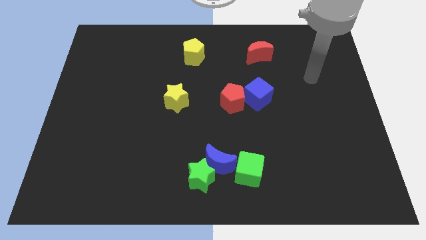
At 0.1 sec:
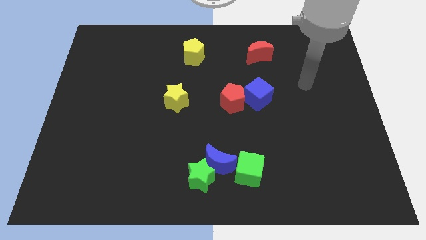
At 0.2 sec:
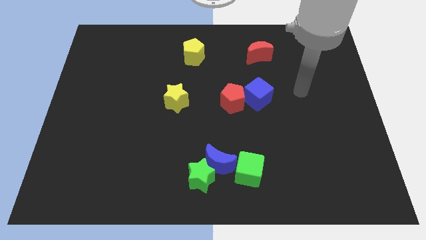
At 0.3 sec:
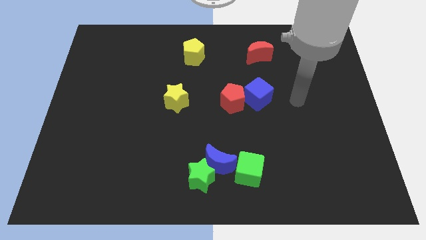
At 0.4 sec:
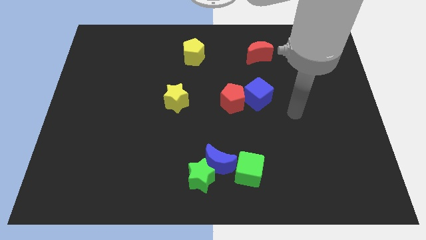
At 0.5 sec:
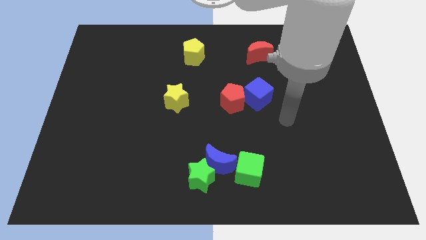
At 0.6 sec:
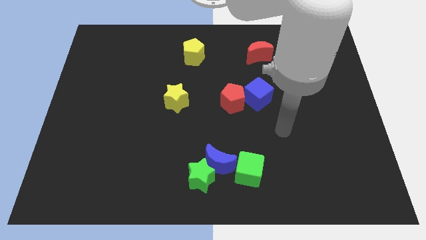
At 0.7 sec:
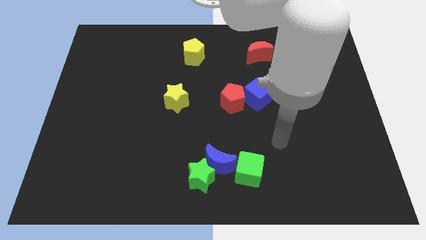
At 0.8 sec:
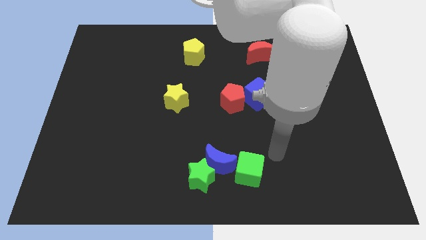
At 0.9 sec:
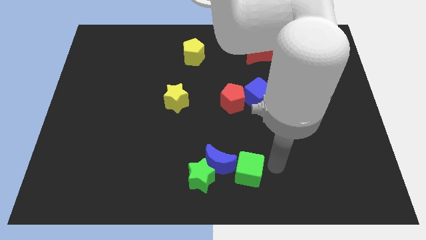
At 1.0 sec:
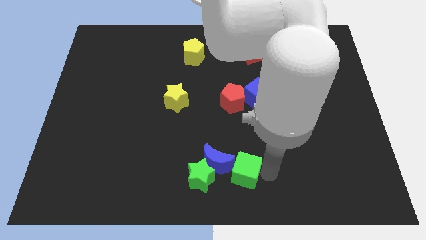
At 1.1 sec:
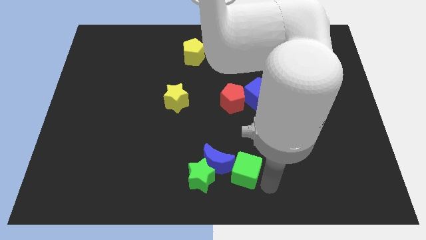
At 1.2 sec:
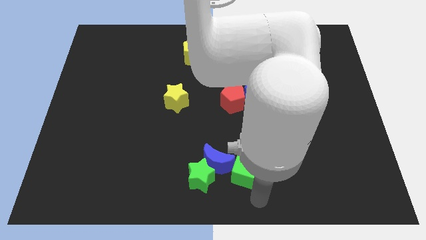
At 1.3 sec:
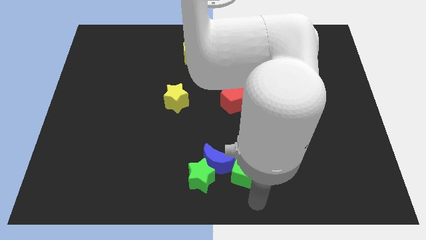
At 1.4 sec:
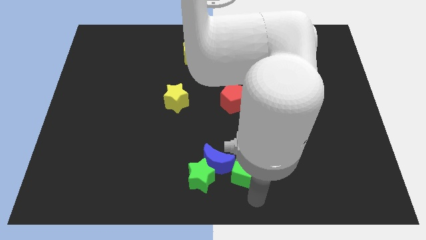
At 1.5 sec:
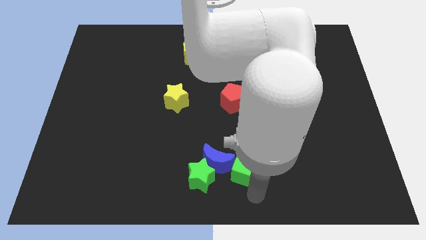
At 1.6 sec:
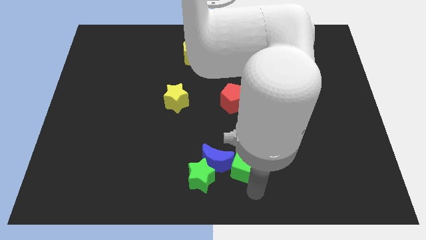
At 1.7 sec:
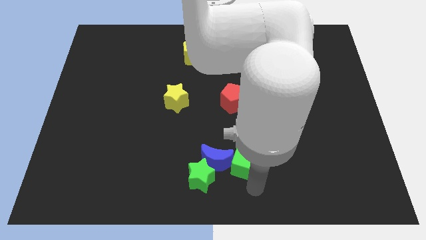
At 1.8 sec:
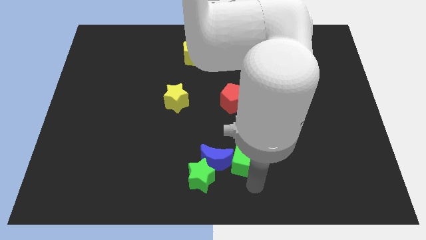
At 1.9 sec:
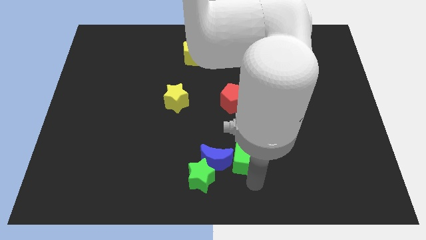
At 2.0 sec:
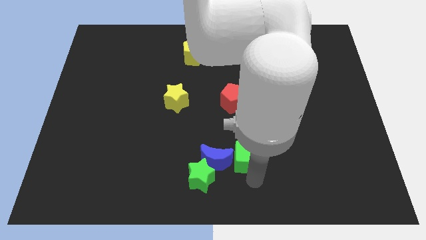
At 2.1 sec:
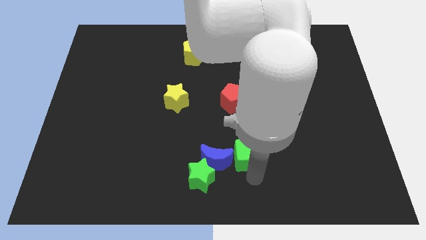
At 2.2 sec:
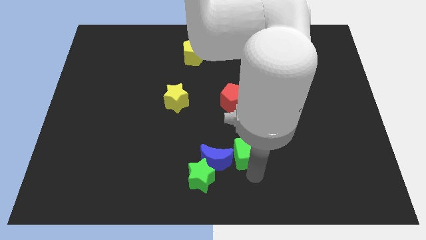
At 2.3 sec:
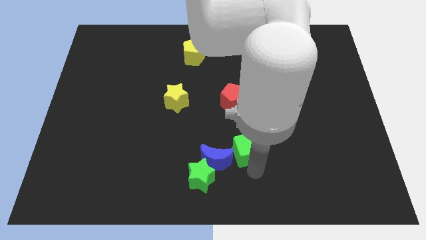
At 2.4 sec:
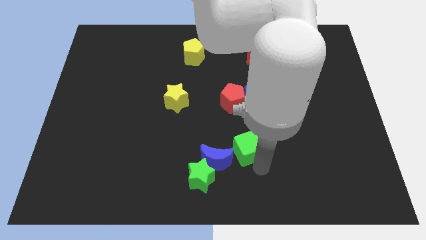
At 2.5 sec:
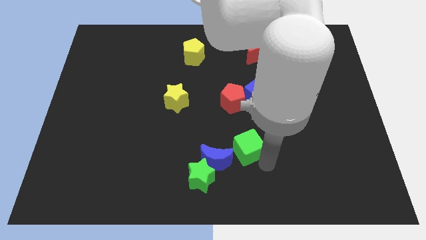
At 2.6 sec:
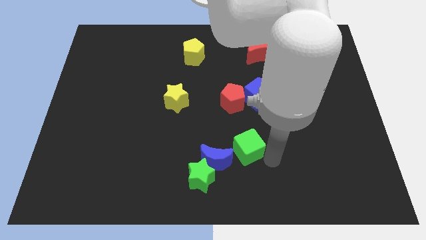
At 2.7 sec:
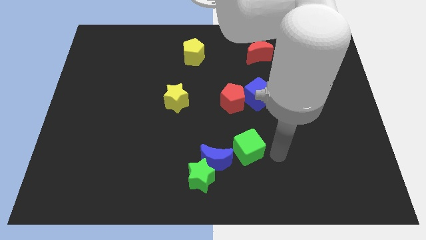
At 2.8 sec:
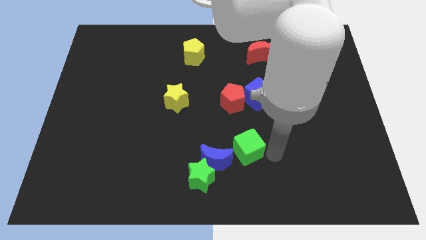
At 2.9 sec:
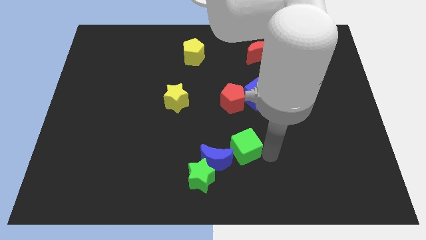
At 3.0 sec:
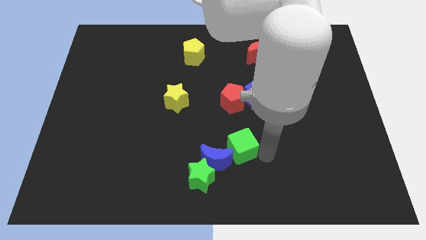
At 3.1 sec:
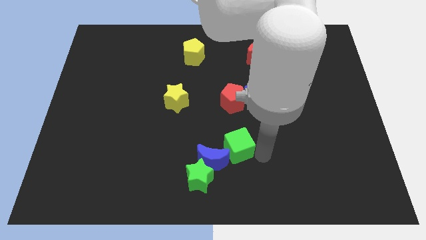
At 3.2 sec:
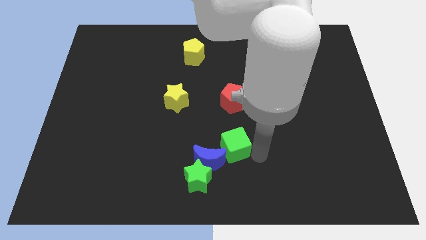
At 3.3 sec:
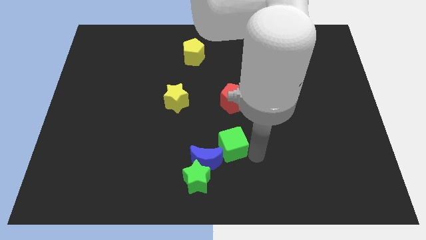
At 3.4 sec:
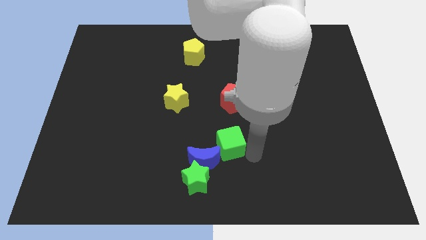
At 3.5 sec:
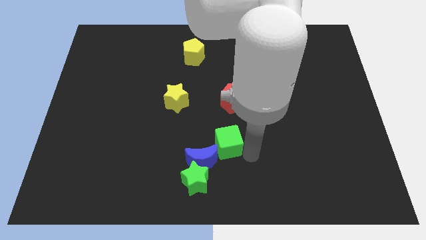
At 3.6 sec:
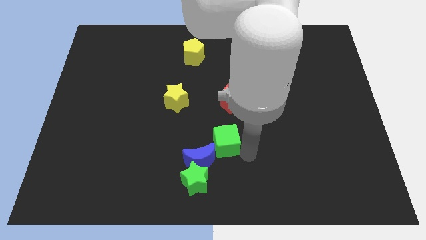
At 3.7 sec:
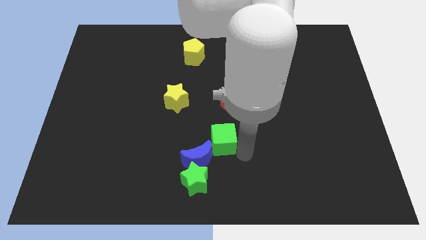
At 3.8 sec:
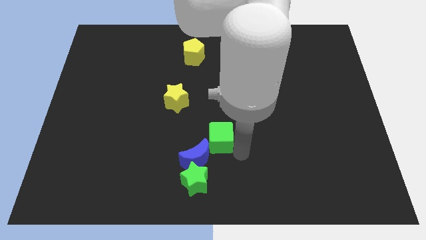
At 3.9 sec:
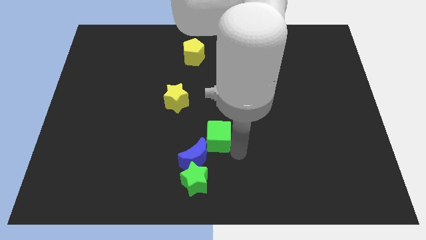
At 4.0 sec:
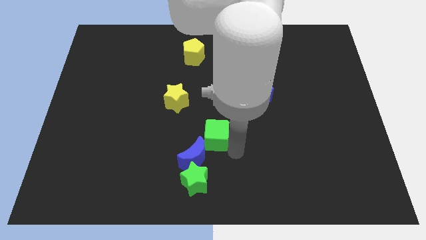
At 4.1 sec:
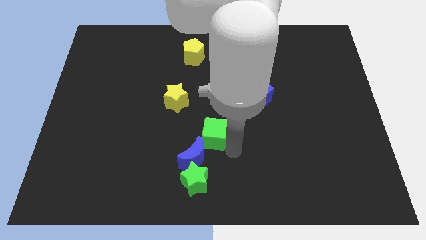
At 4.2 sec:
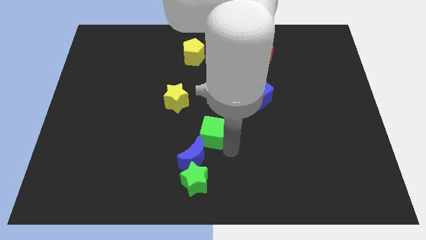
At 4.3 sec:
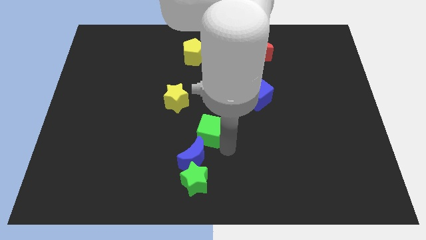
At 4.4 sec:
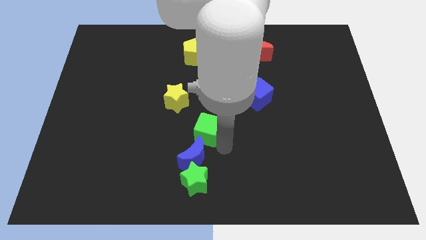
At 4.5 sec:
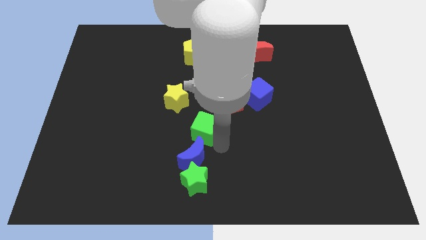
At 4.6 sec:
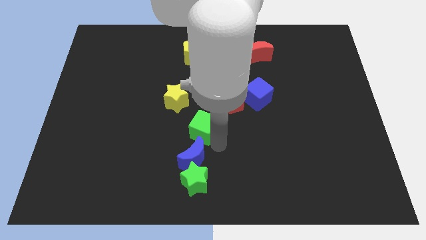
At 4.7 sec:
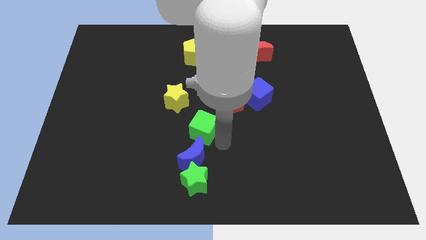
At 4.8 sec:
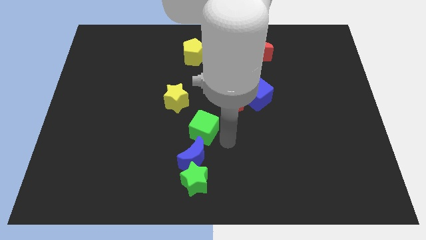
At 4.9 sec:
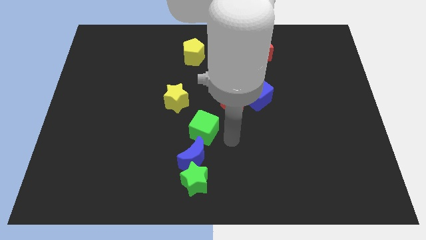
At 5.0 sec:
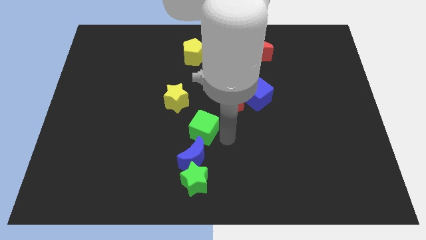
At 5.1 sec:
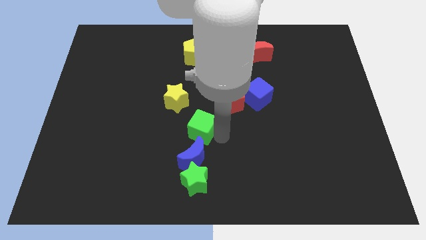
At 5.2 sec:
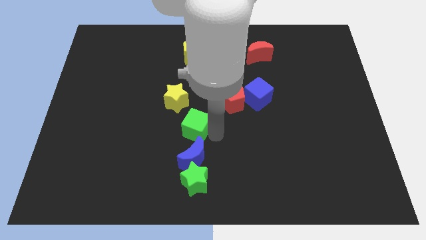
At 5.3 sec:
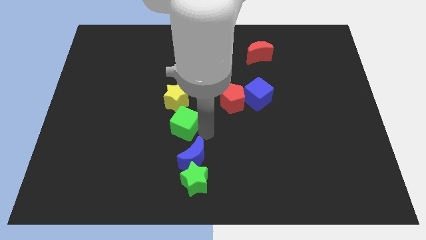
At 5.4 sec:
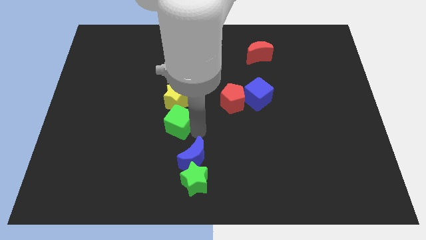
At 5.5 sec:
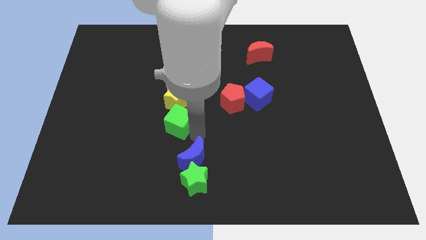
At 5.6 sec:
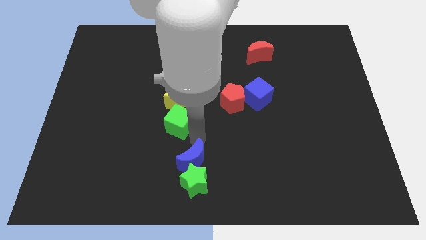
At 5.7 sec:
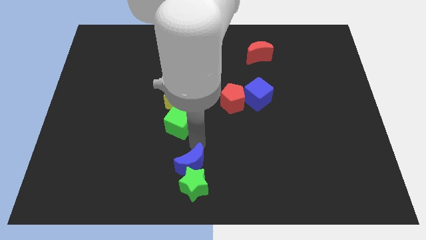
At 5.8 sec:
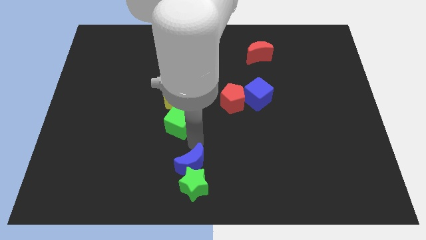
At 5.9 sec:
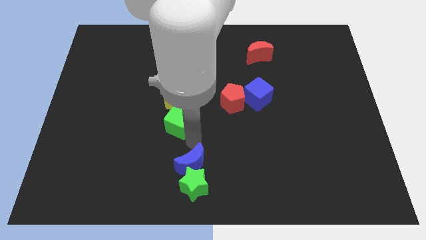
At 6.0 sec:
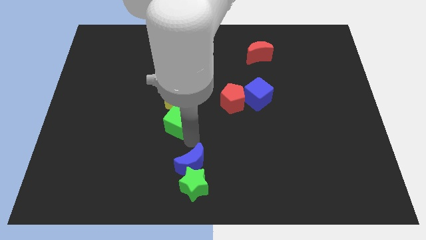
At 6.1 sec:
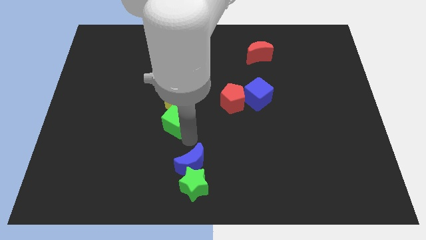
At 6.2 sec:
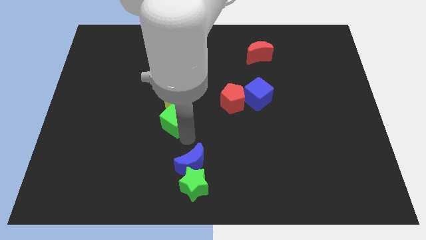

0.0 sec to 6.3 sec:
slide the green cube upwards and then to the left

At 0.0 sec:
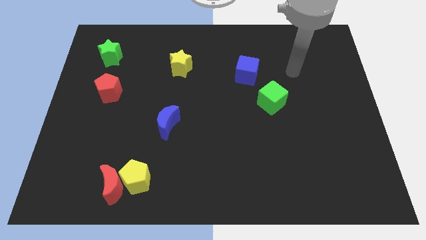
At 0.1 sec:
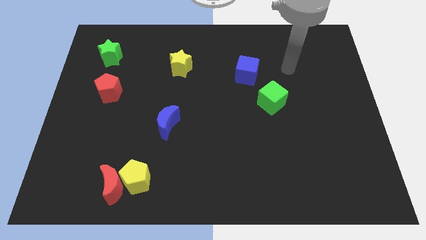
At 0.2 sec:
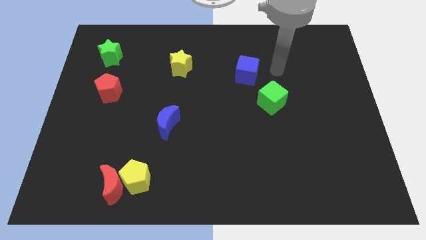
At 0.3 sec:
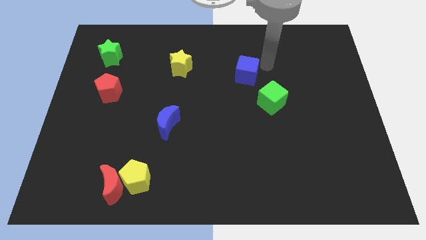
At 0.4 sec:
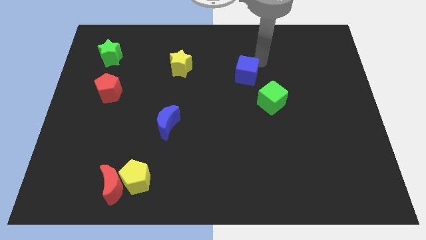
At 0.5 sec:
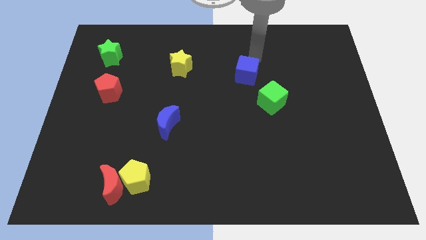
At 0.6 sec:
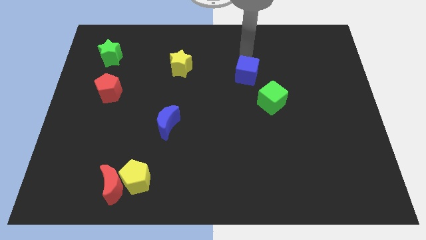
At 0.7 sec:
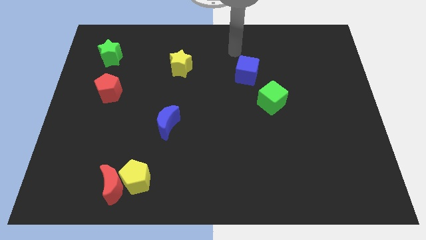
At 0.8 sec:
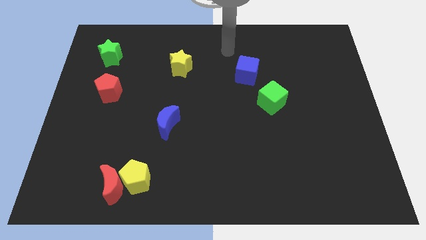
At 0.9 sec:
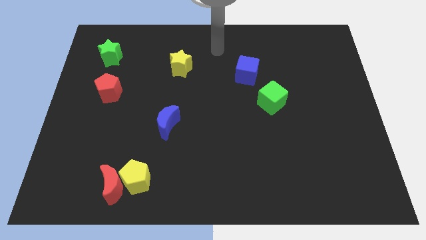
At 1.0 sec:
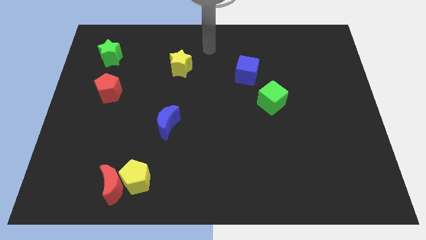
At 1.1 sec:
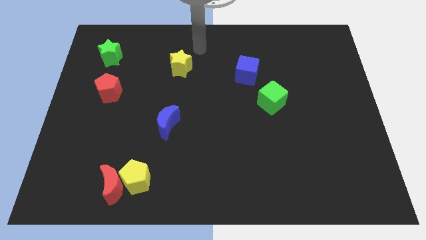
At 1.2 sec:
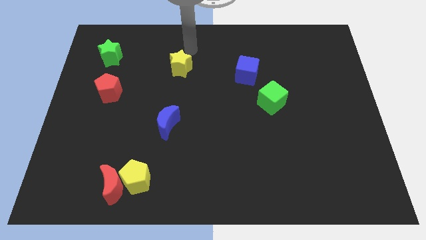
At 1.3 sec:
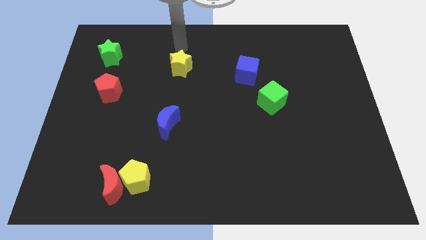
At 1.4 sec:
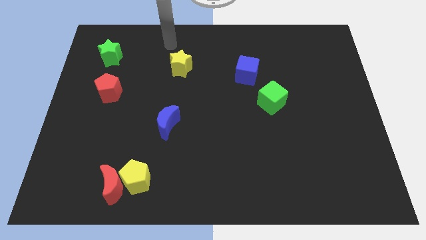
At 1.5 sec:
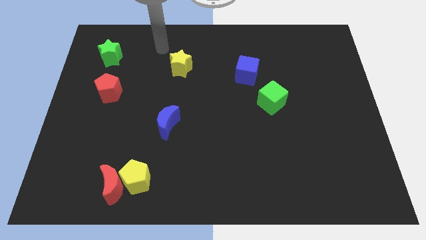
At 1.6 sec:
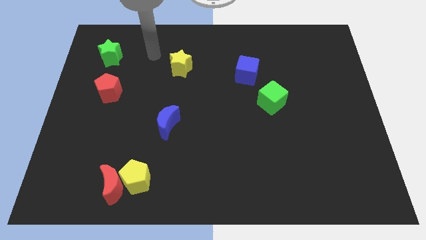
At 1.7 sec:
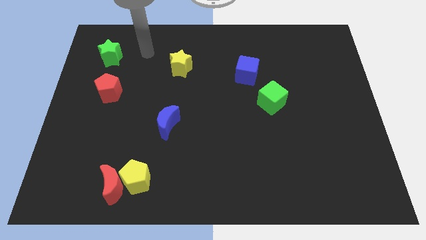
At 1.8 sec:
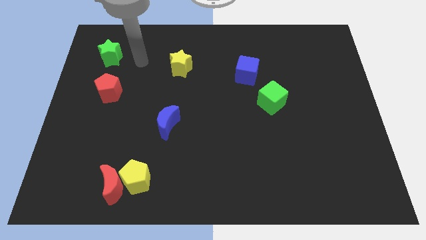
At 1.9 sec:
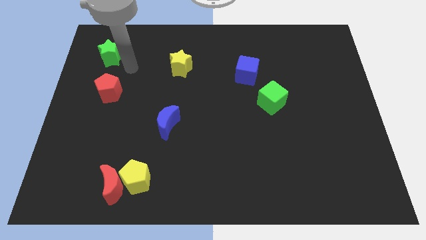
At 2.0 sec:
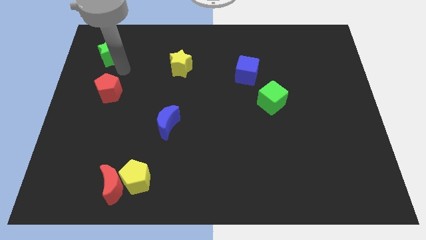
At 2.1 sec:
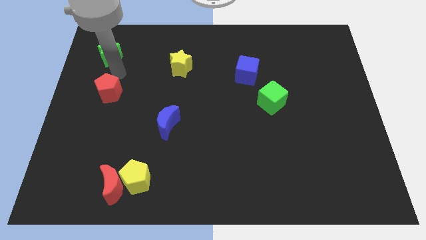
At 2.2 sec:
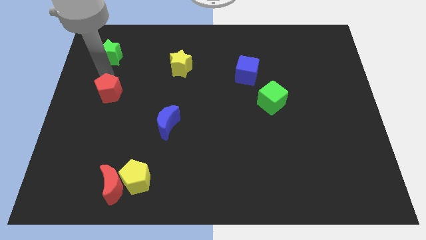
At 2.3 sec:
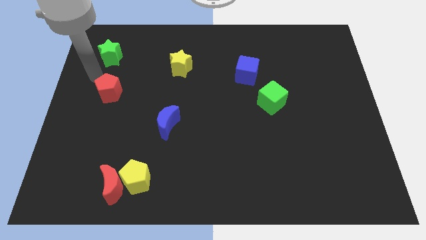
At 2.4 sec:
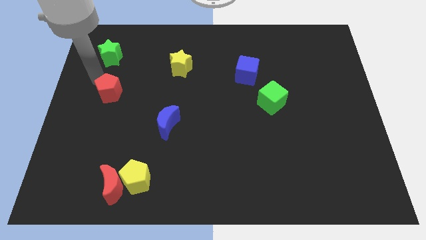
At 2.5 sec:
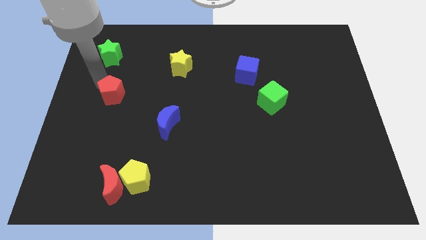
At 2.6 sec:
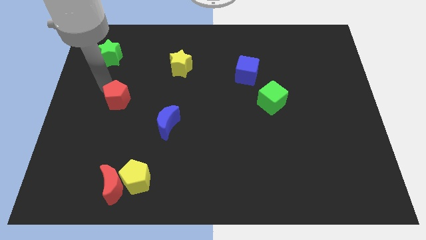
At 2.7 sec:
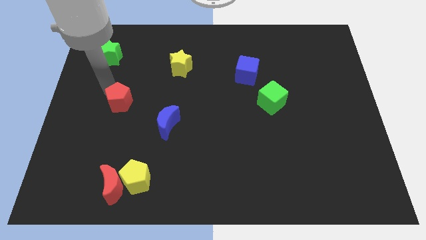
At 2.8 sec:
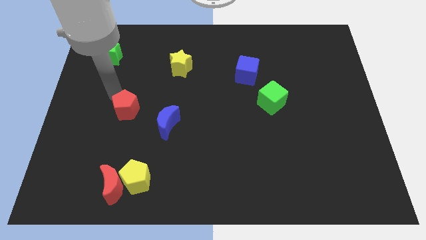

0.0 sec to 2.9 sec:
slightly slide the red pentagon down and to the right diagonally
